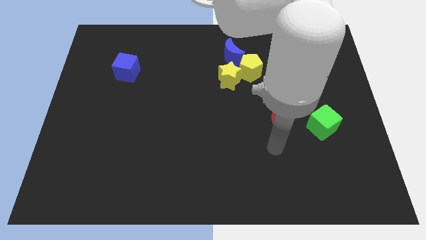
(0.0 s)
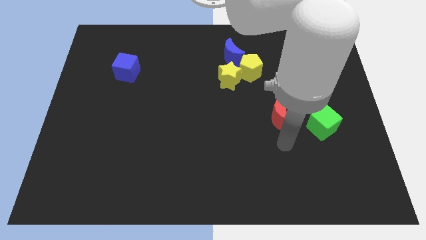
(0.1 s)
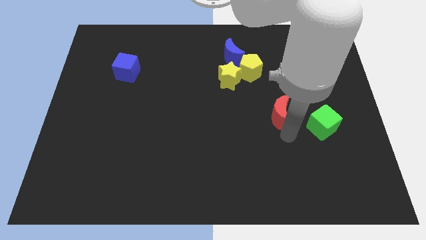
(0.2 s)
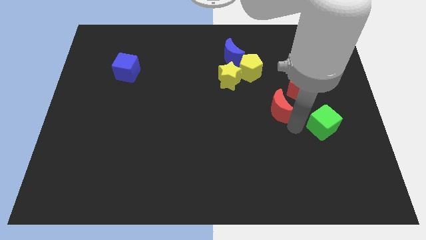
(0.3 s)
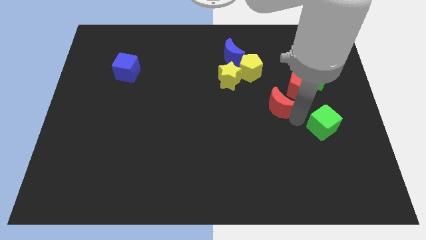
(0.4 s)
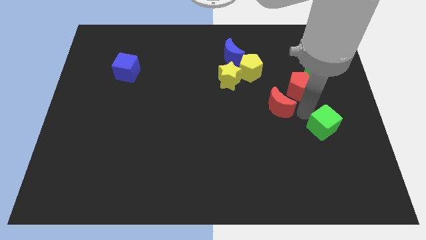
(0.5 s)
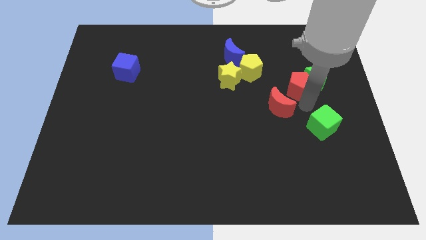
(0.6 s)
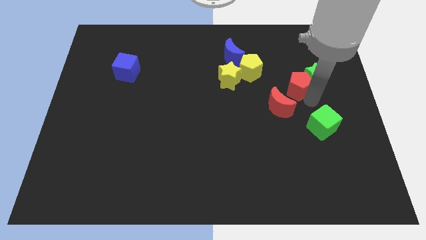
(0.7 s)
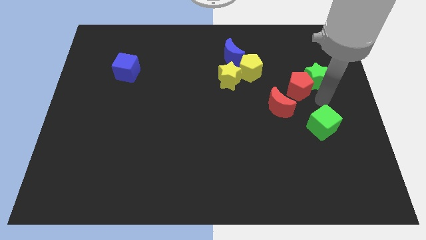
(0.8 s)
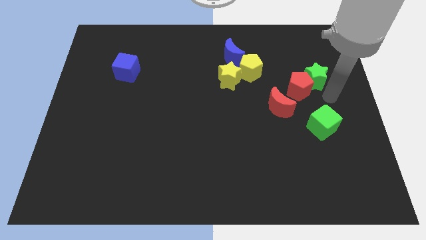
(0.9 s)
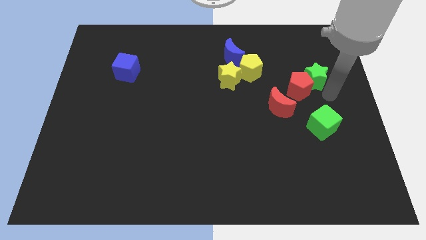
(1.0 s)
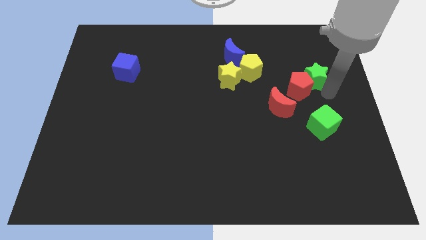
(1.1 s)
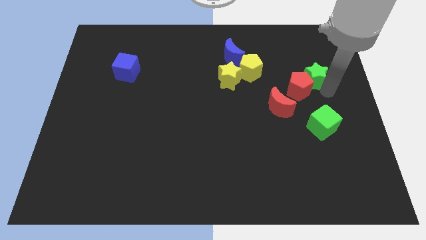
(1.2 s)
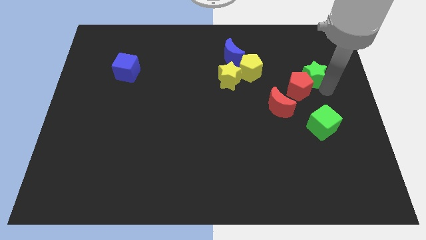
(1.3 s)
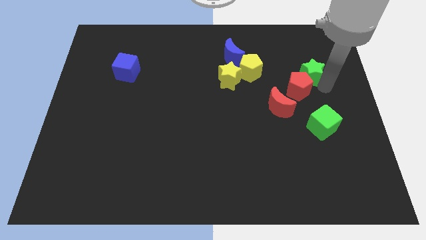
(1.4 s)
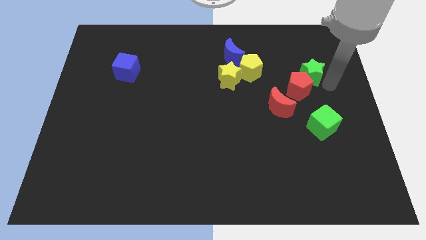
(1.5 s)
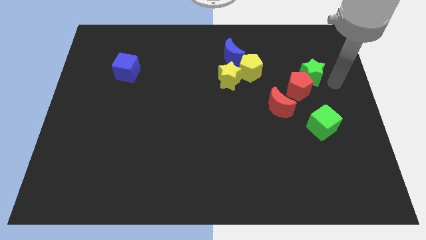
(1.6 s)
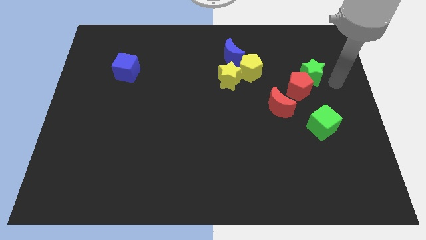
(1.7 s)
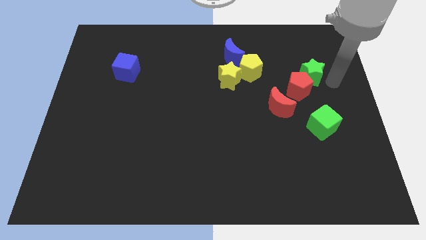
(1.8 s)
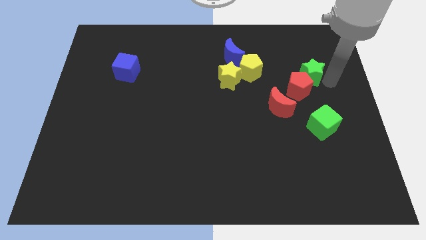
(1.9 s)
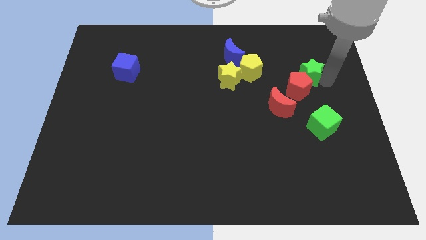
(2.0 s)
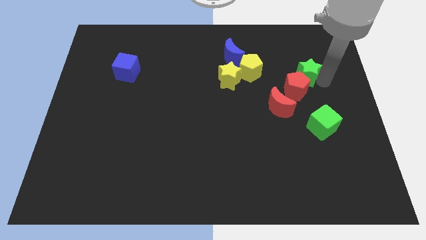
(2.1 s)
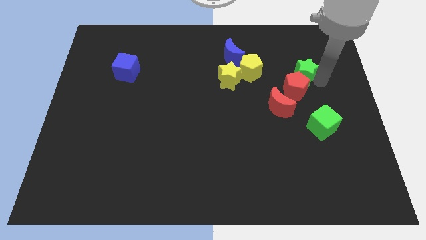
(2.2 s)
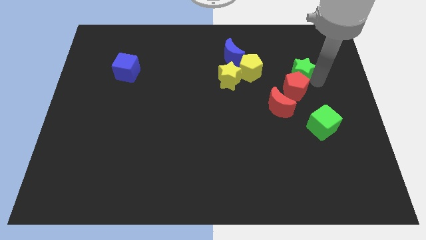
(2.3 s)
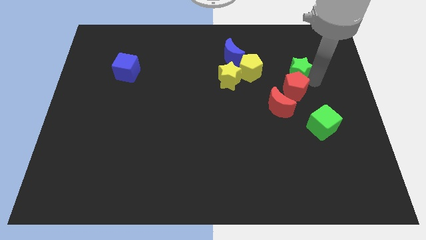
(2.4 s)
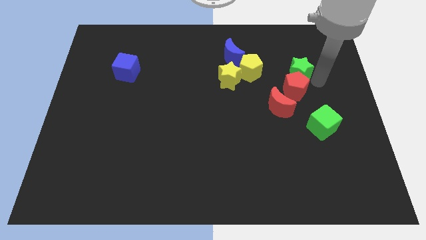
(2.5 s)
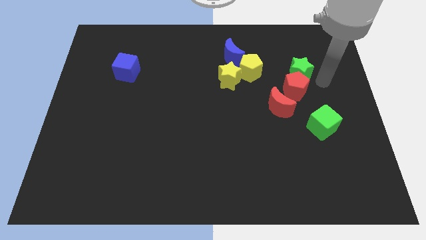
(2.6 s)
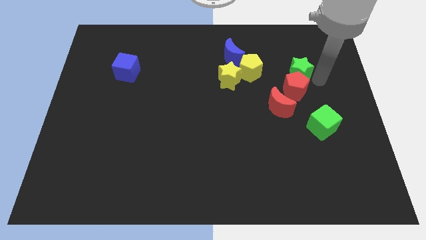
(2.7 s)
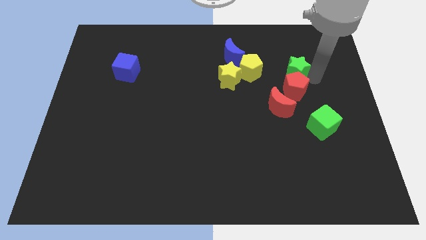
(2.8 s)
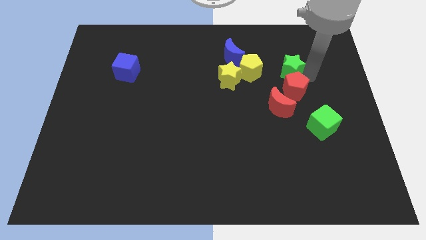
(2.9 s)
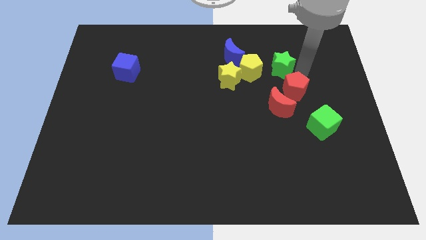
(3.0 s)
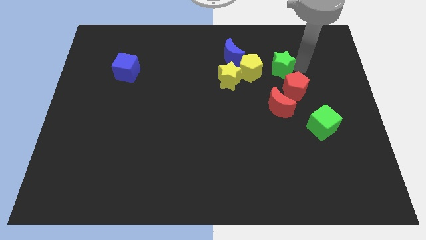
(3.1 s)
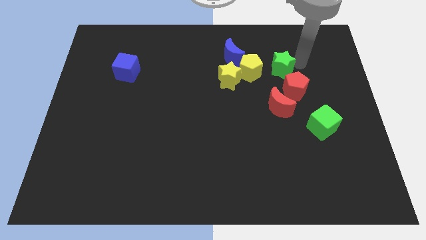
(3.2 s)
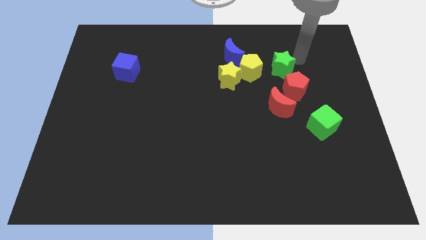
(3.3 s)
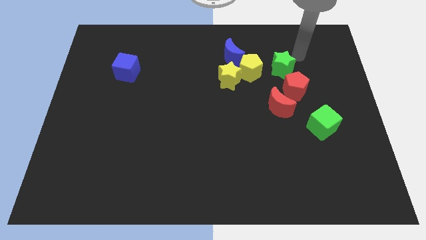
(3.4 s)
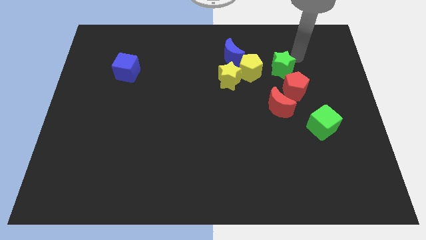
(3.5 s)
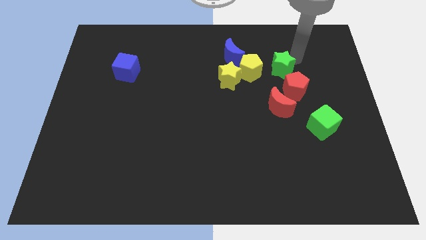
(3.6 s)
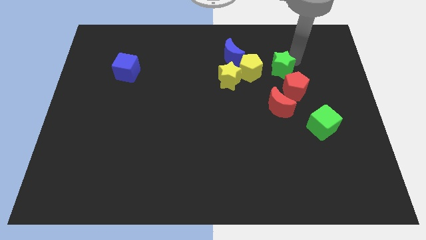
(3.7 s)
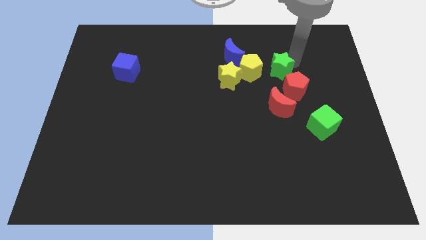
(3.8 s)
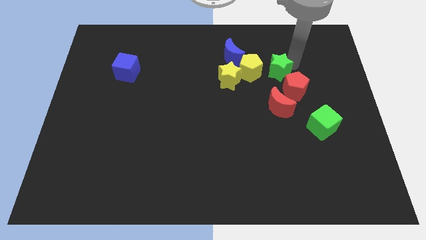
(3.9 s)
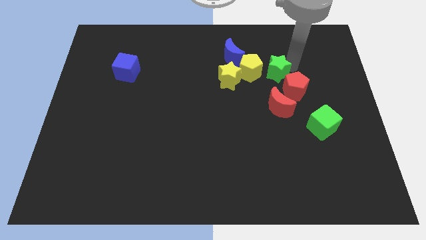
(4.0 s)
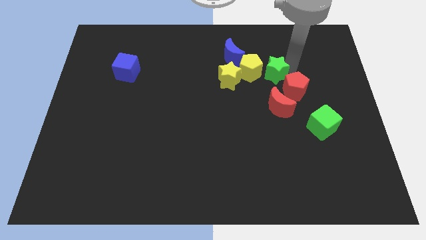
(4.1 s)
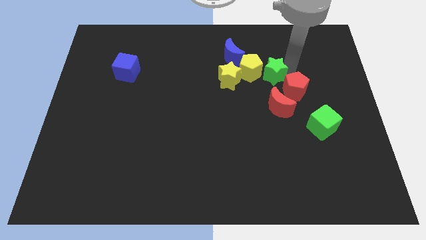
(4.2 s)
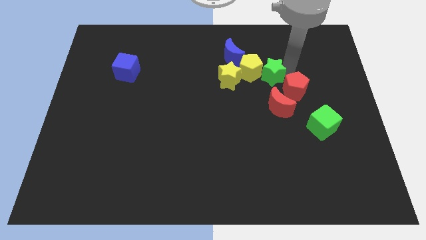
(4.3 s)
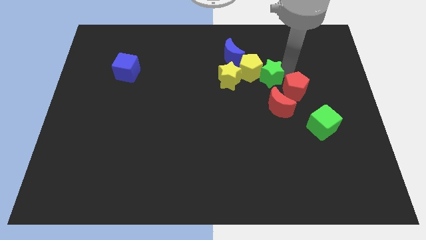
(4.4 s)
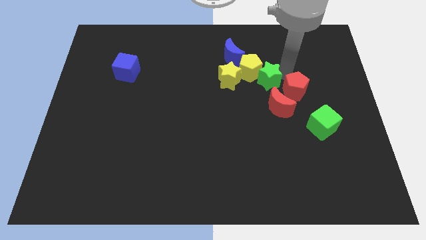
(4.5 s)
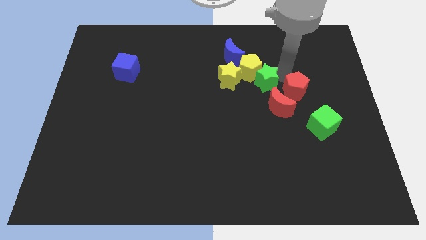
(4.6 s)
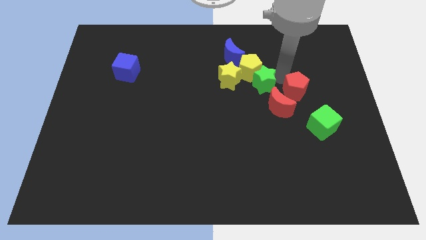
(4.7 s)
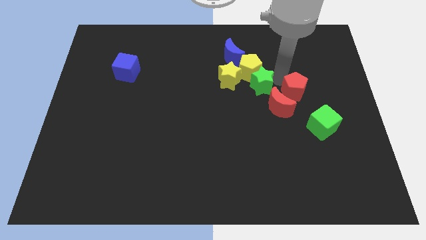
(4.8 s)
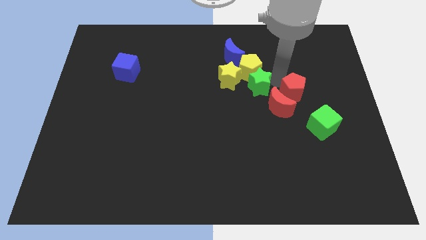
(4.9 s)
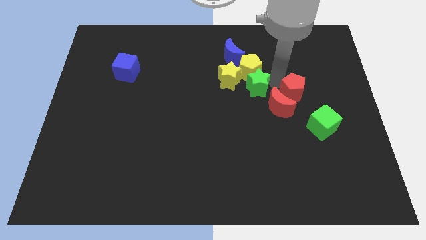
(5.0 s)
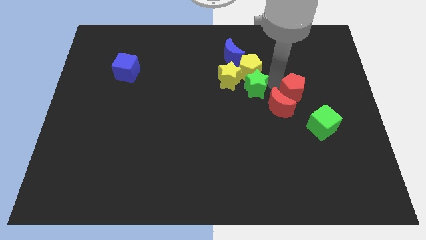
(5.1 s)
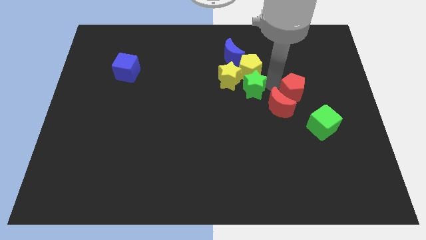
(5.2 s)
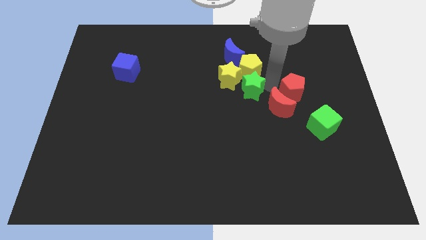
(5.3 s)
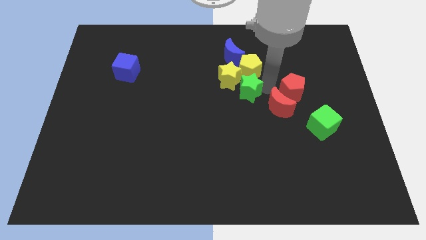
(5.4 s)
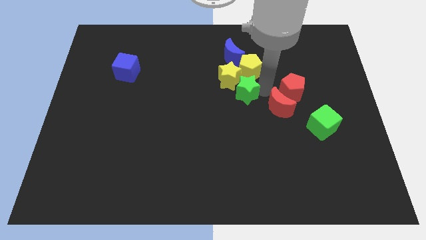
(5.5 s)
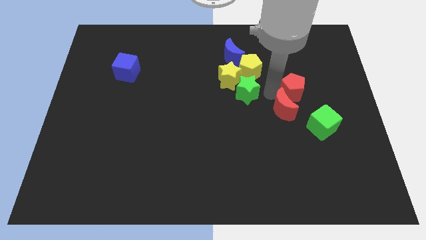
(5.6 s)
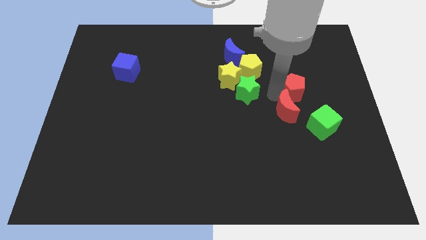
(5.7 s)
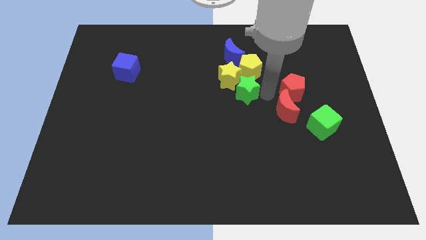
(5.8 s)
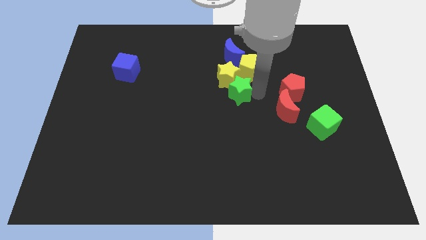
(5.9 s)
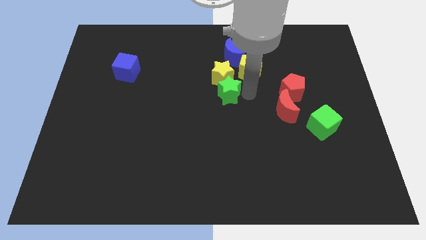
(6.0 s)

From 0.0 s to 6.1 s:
slide the green star left

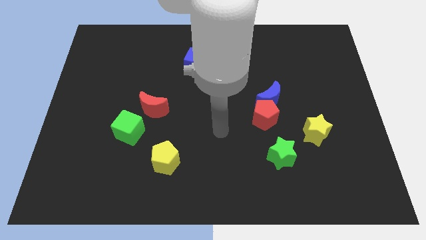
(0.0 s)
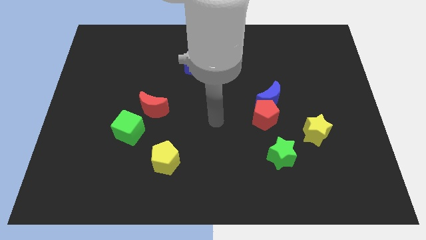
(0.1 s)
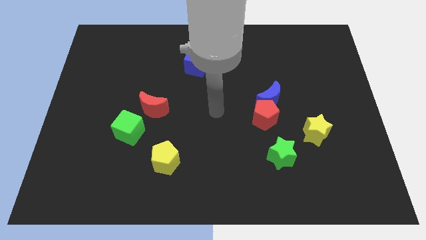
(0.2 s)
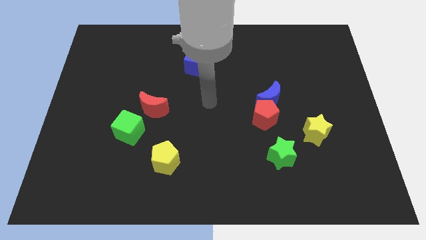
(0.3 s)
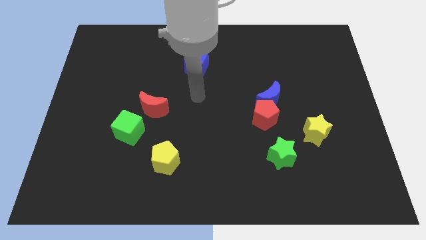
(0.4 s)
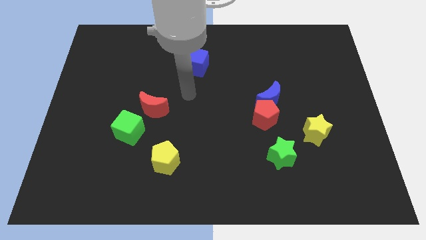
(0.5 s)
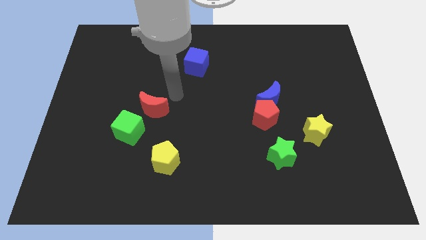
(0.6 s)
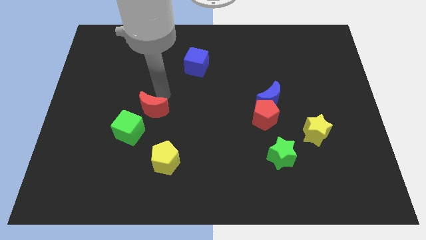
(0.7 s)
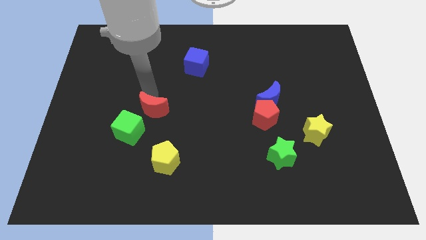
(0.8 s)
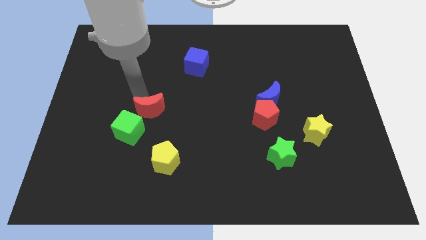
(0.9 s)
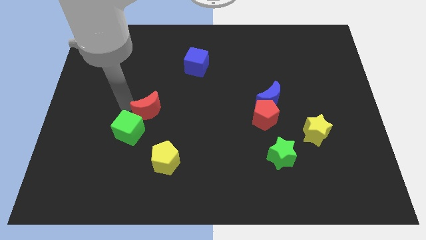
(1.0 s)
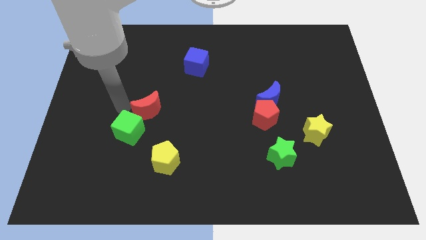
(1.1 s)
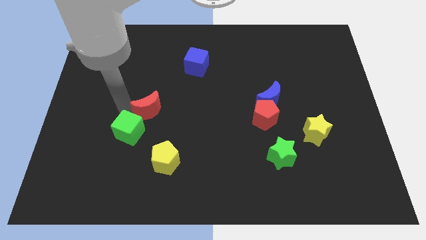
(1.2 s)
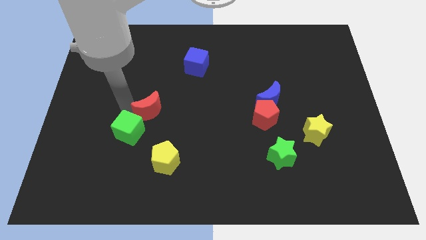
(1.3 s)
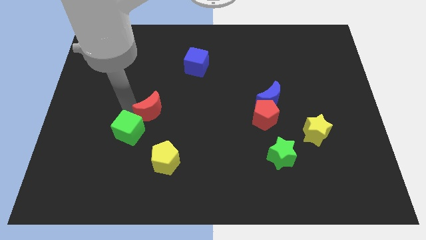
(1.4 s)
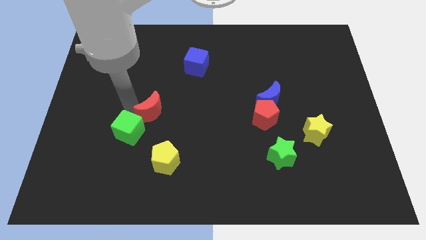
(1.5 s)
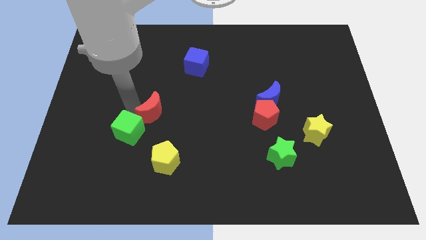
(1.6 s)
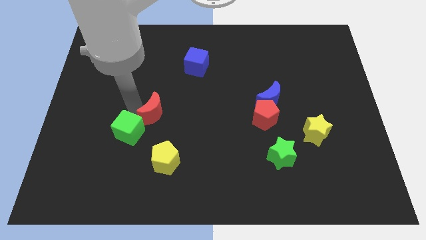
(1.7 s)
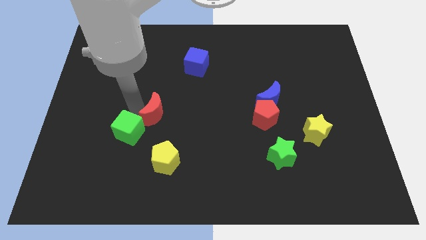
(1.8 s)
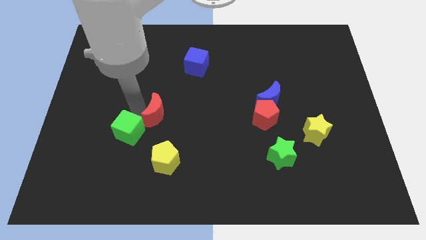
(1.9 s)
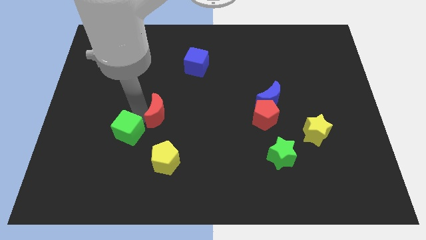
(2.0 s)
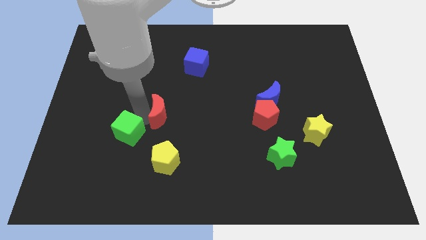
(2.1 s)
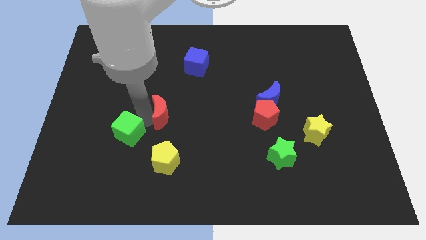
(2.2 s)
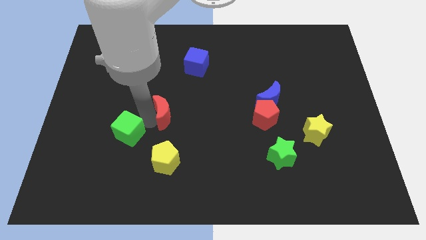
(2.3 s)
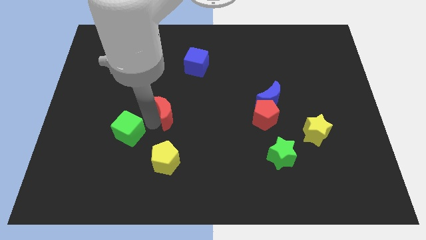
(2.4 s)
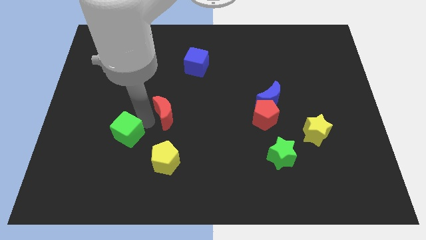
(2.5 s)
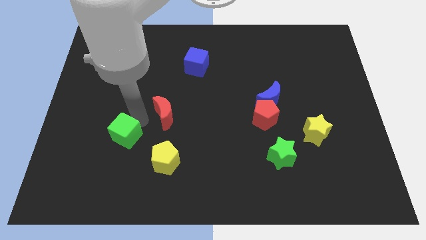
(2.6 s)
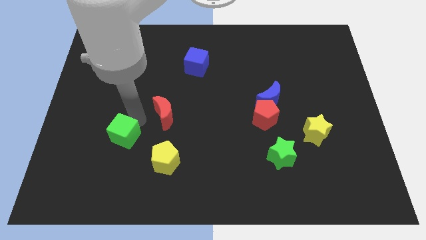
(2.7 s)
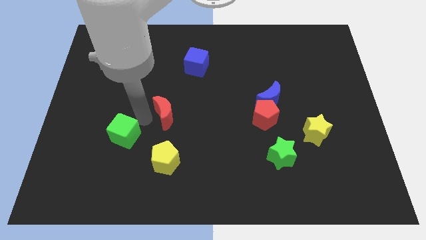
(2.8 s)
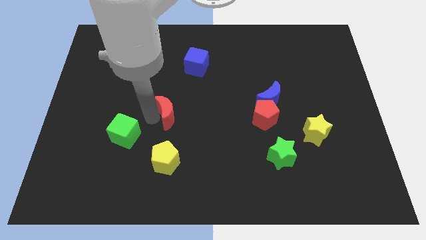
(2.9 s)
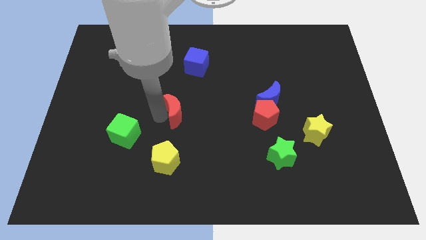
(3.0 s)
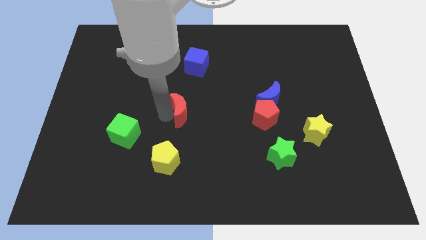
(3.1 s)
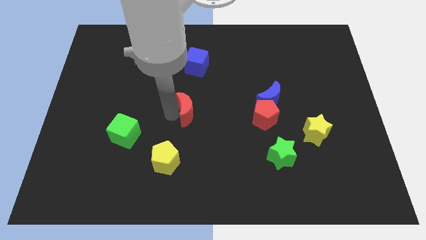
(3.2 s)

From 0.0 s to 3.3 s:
push the red moon to the right a little
